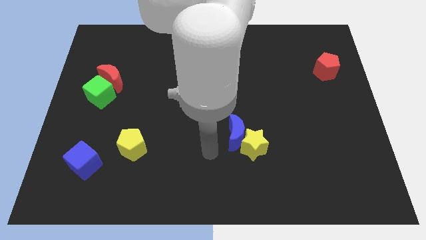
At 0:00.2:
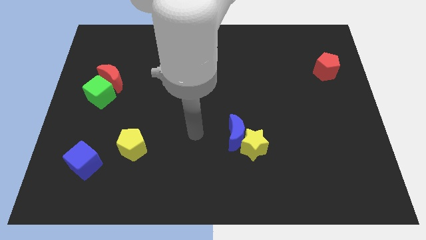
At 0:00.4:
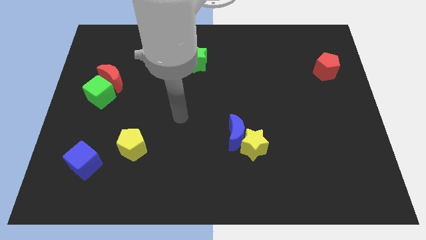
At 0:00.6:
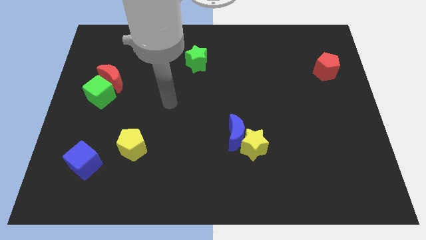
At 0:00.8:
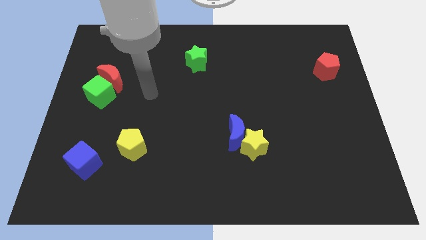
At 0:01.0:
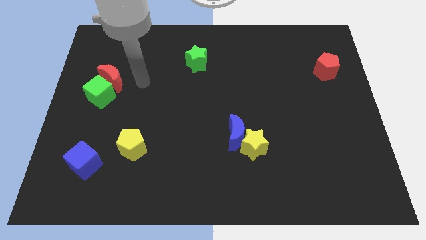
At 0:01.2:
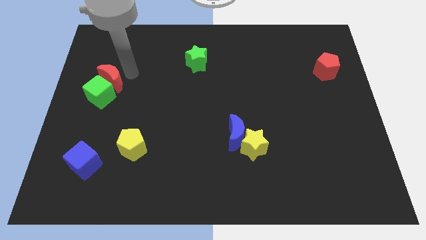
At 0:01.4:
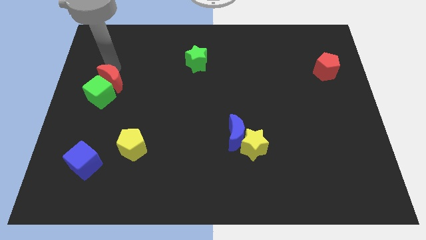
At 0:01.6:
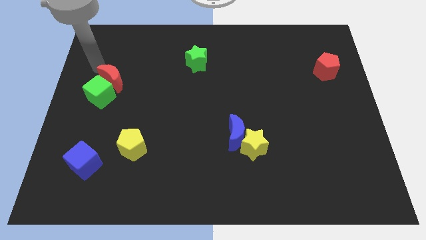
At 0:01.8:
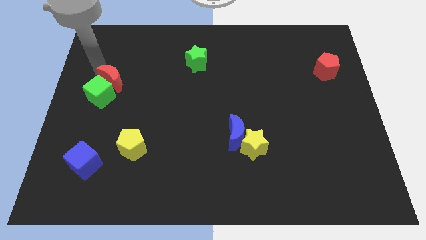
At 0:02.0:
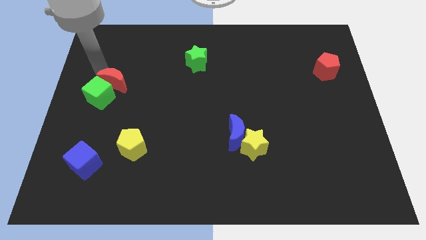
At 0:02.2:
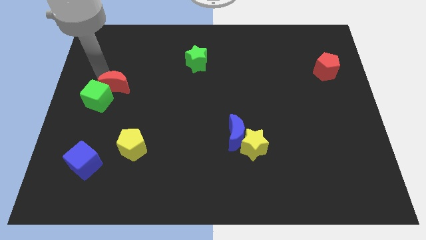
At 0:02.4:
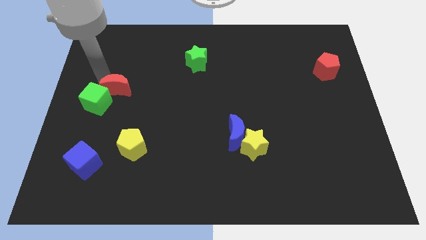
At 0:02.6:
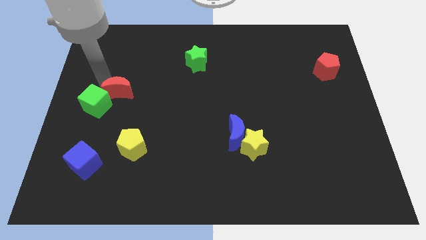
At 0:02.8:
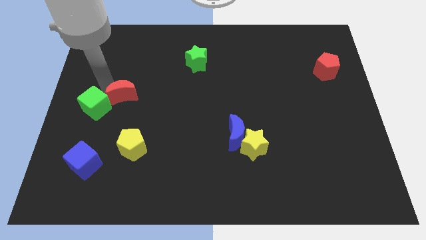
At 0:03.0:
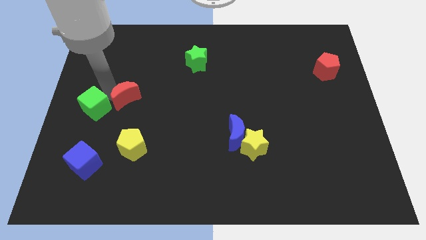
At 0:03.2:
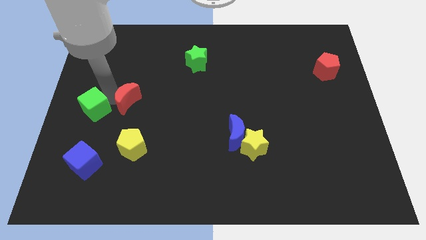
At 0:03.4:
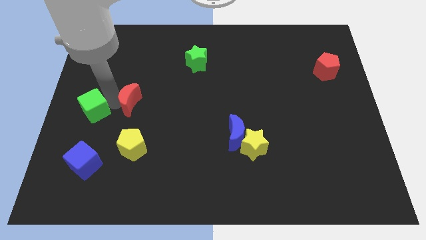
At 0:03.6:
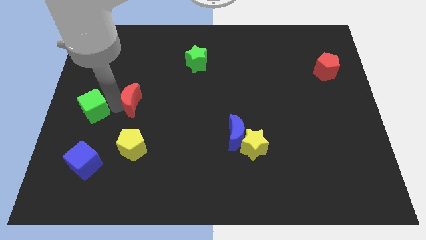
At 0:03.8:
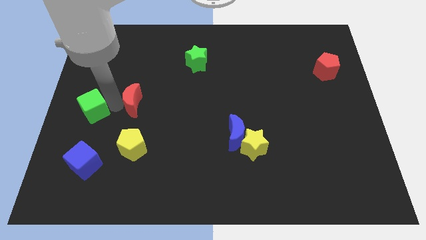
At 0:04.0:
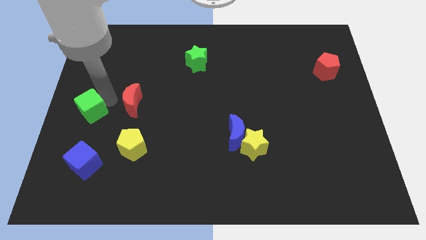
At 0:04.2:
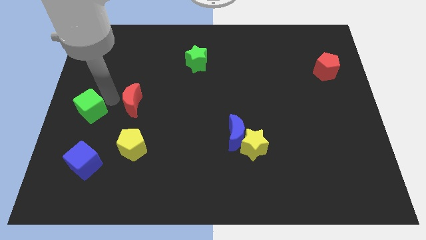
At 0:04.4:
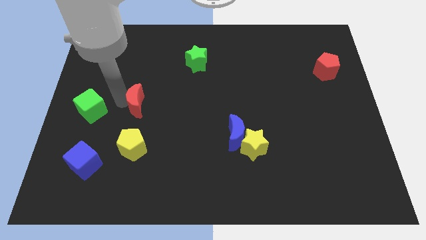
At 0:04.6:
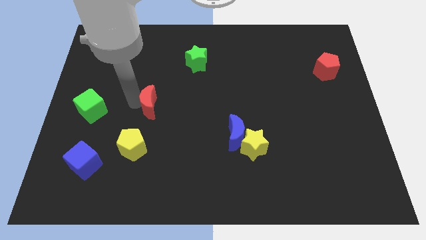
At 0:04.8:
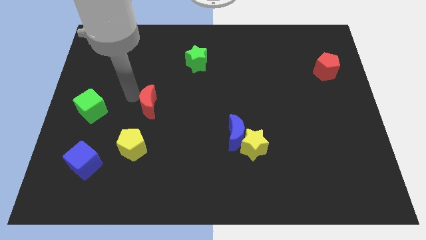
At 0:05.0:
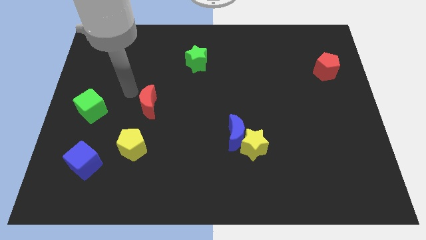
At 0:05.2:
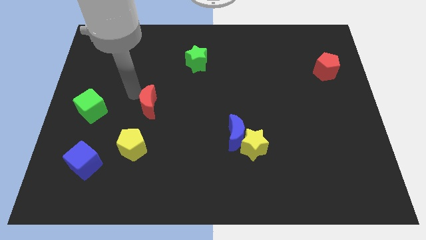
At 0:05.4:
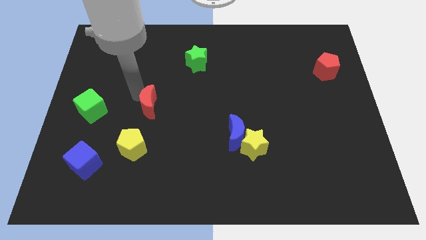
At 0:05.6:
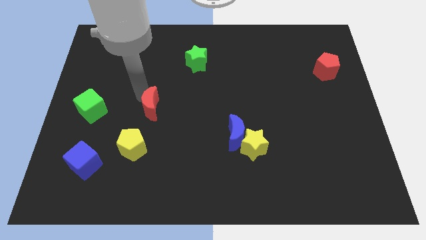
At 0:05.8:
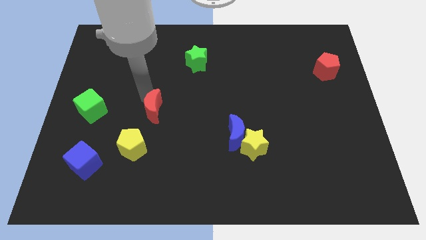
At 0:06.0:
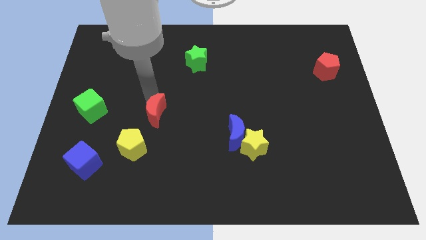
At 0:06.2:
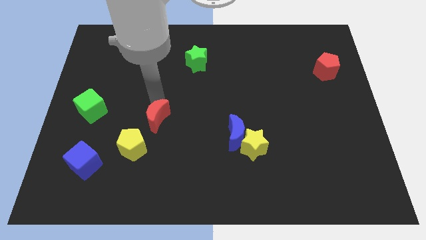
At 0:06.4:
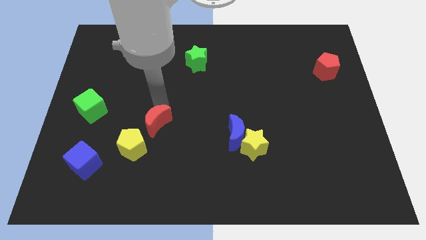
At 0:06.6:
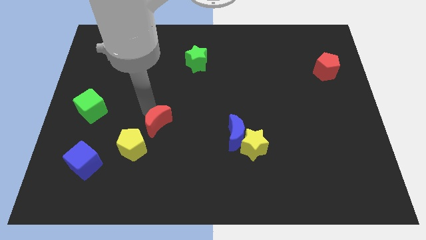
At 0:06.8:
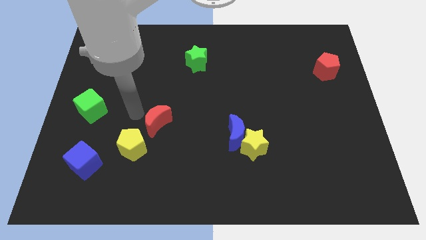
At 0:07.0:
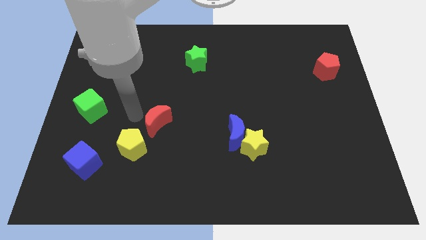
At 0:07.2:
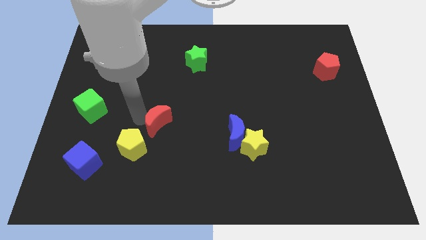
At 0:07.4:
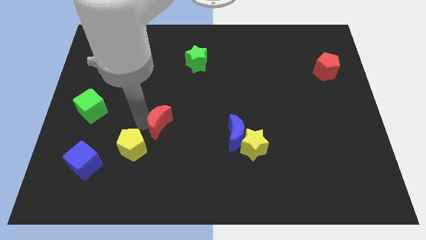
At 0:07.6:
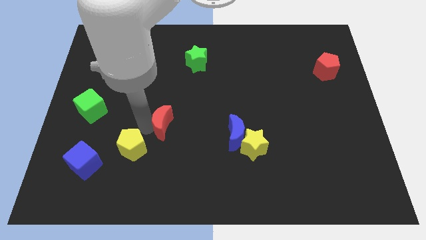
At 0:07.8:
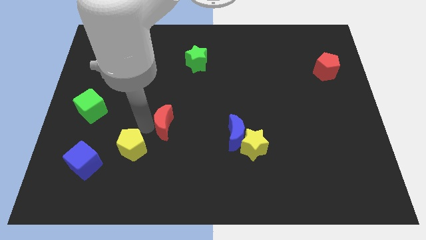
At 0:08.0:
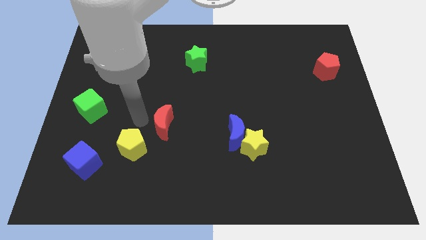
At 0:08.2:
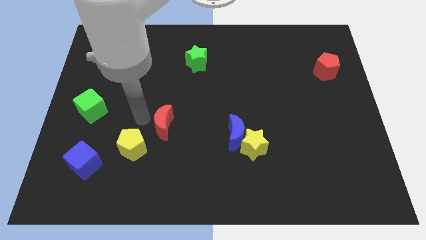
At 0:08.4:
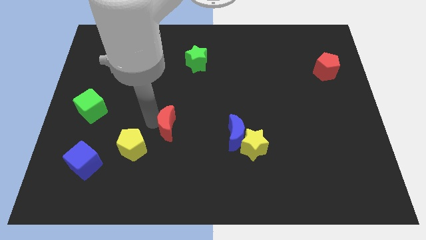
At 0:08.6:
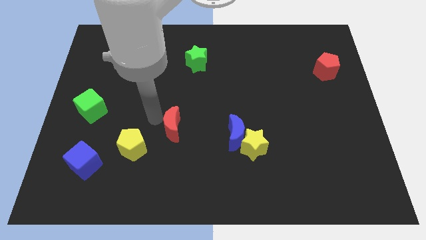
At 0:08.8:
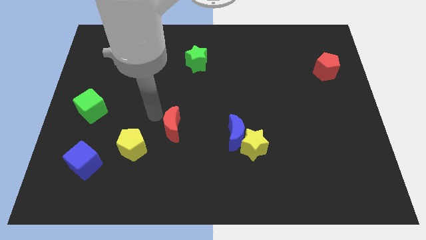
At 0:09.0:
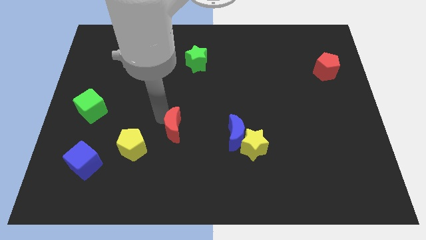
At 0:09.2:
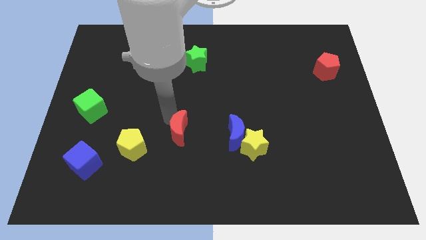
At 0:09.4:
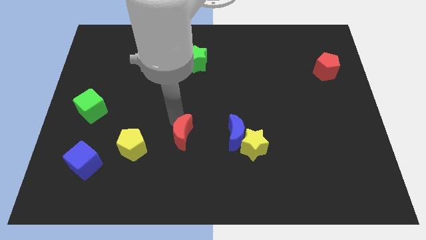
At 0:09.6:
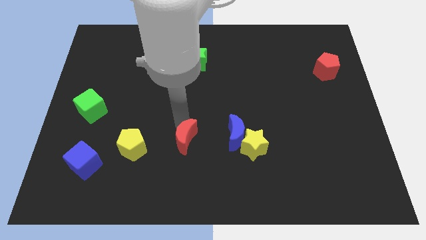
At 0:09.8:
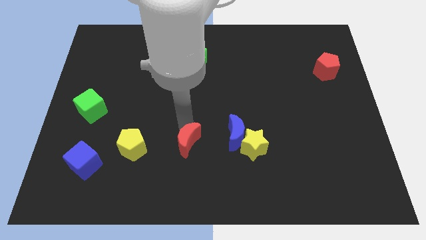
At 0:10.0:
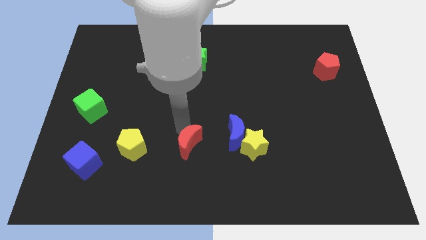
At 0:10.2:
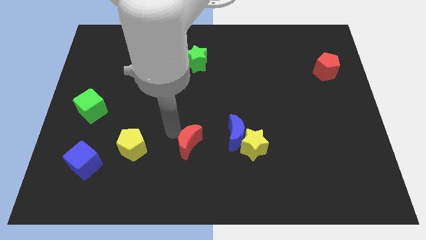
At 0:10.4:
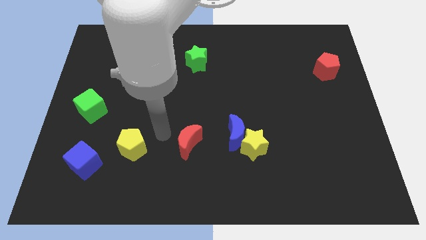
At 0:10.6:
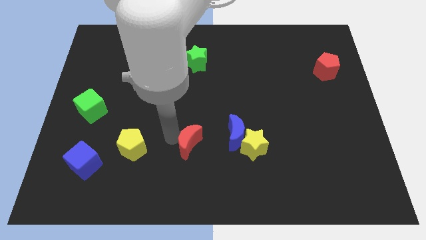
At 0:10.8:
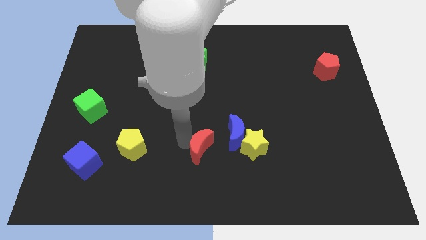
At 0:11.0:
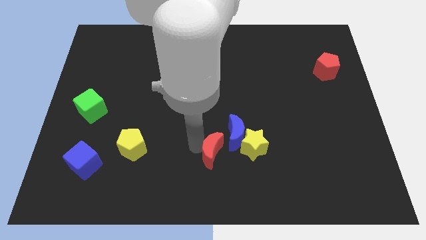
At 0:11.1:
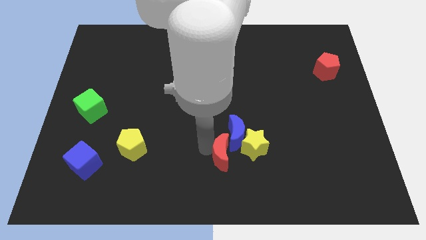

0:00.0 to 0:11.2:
move the red moon below the blue moon

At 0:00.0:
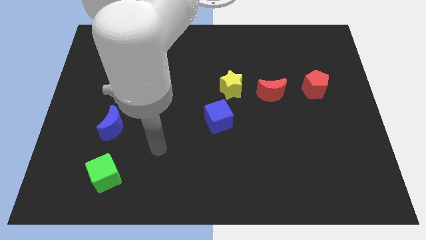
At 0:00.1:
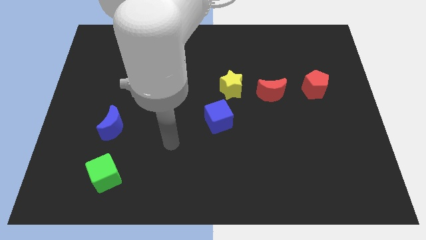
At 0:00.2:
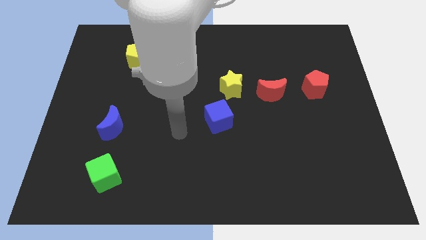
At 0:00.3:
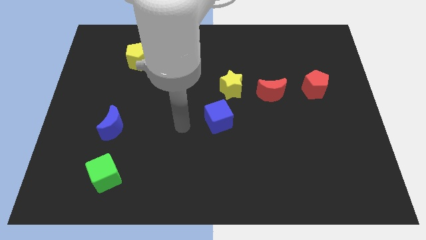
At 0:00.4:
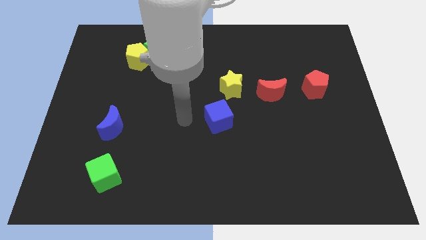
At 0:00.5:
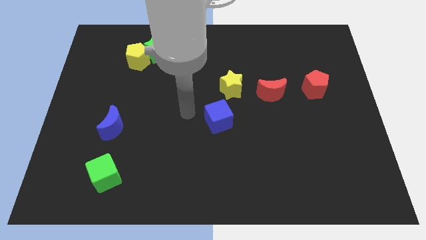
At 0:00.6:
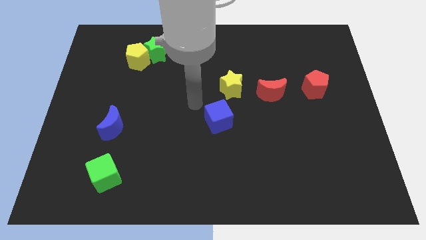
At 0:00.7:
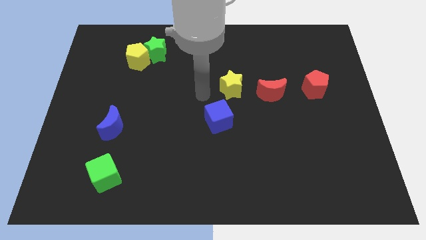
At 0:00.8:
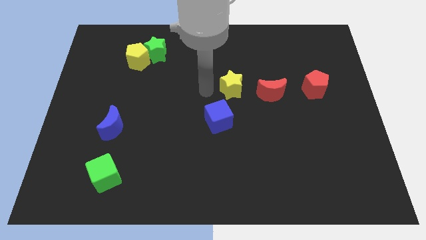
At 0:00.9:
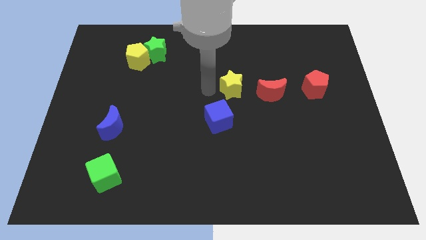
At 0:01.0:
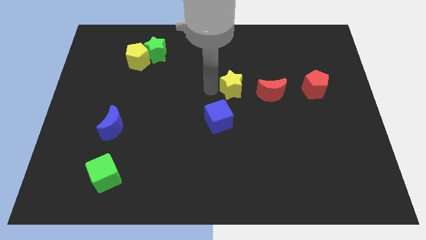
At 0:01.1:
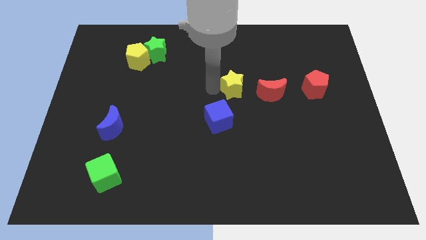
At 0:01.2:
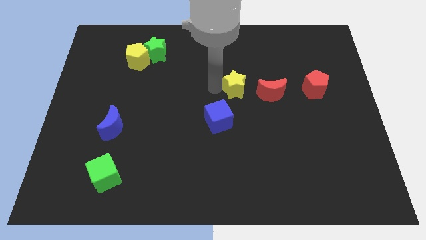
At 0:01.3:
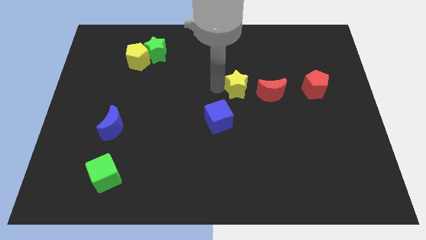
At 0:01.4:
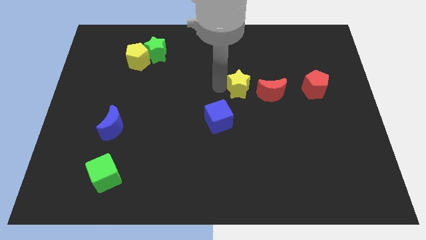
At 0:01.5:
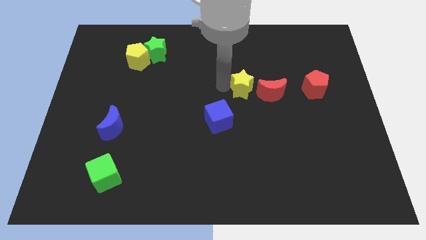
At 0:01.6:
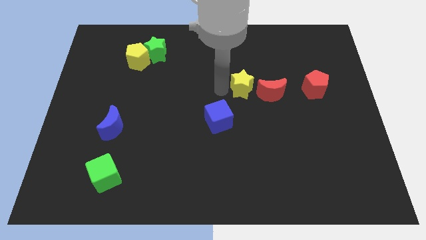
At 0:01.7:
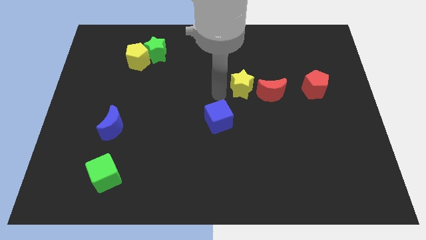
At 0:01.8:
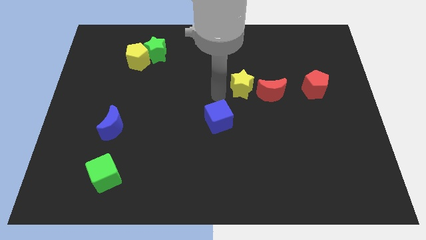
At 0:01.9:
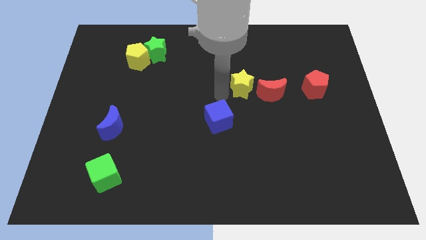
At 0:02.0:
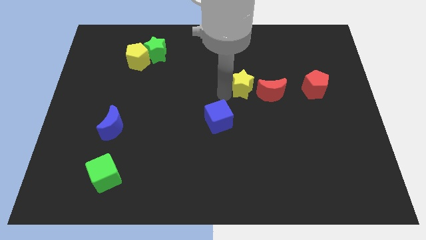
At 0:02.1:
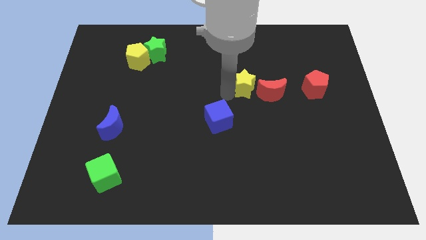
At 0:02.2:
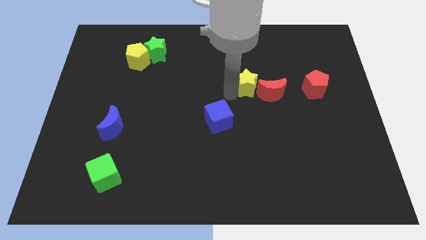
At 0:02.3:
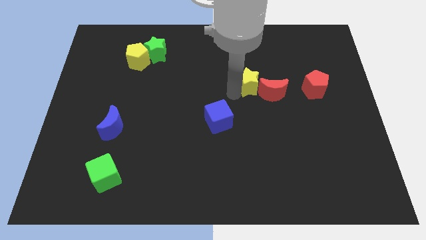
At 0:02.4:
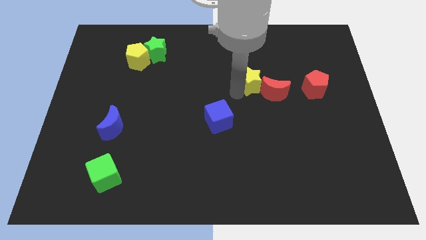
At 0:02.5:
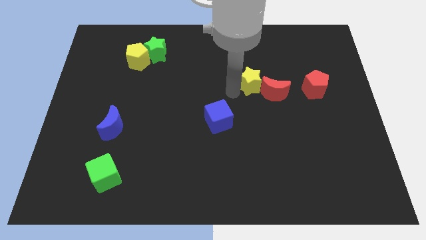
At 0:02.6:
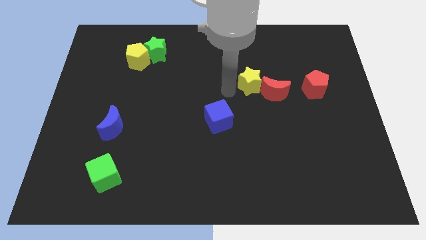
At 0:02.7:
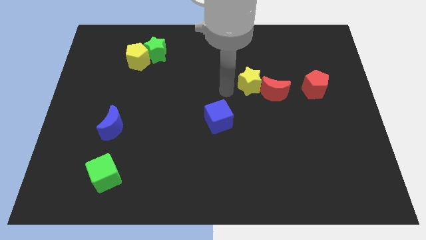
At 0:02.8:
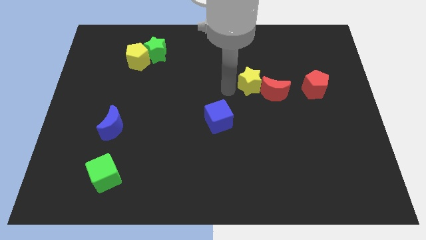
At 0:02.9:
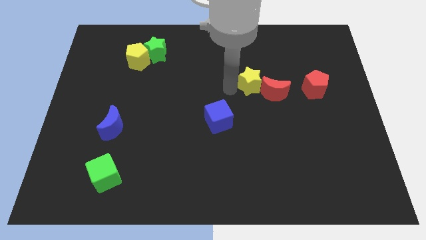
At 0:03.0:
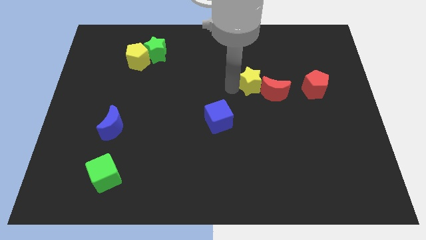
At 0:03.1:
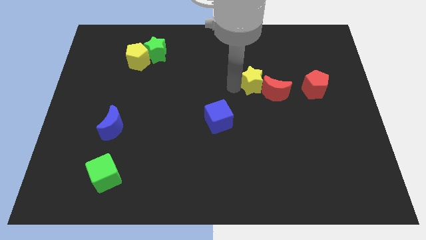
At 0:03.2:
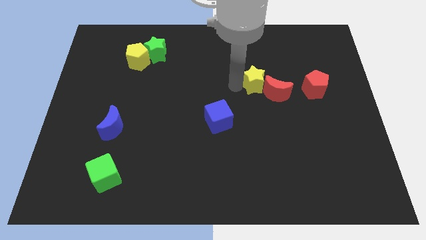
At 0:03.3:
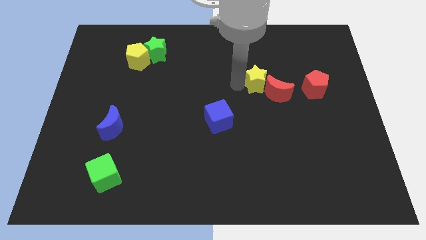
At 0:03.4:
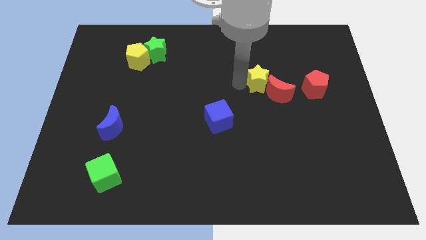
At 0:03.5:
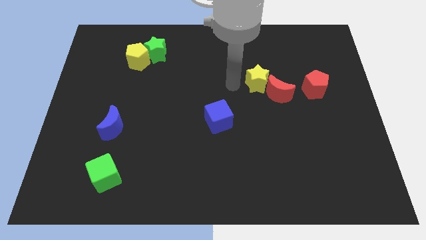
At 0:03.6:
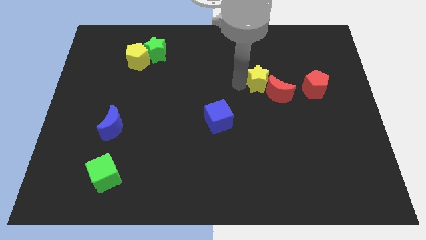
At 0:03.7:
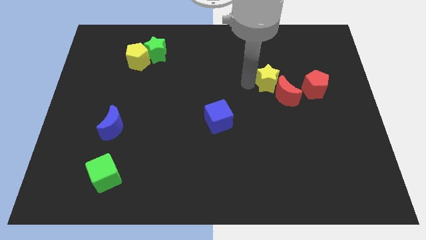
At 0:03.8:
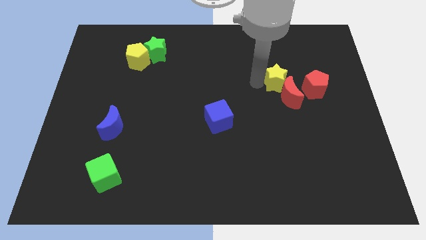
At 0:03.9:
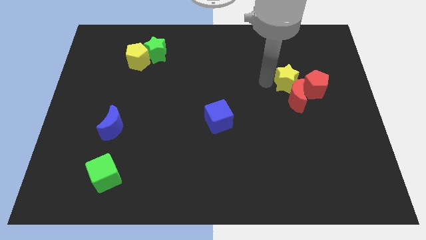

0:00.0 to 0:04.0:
put the yellow star diagonally up and to the right of the red moon
